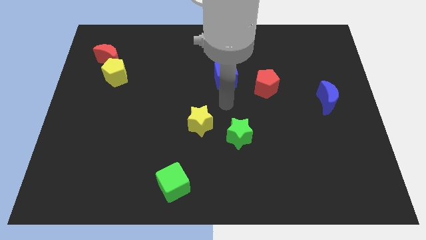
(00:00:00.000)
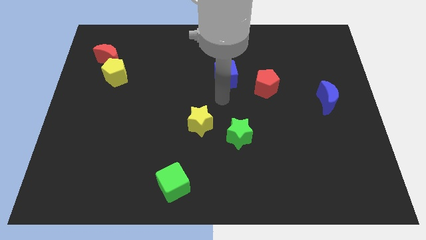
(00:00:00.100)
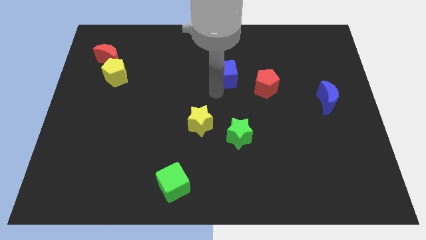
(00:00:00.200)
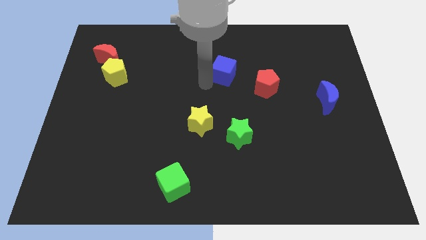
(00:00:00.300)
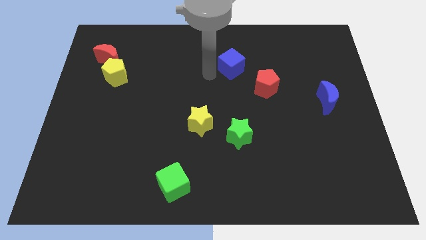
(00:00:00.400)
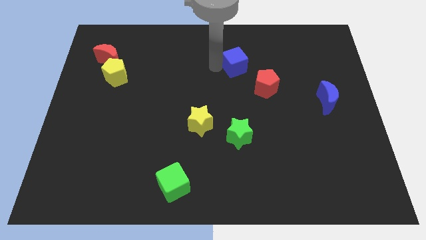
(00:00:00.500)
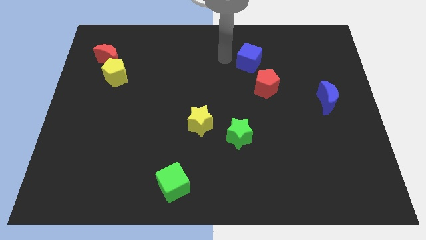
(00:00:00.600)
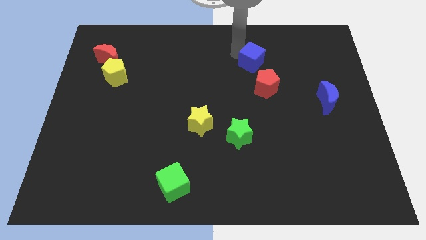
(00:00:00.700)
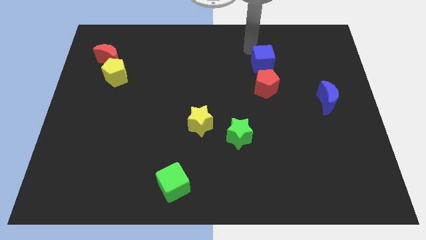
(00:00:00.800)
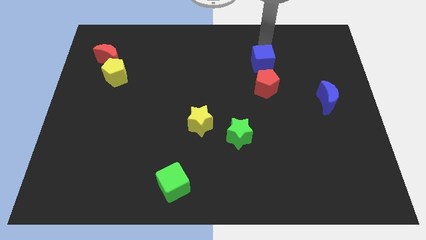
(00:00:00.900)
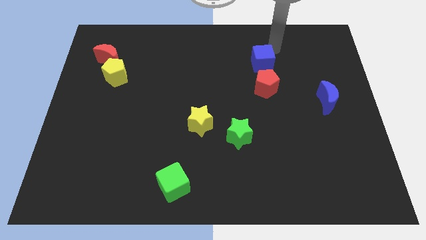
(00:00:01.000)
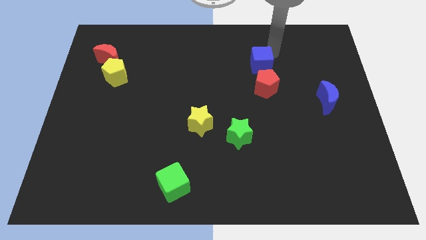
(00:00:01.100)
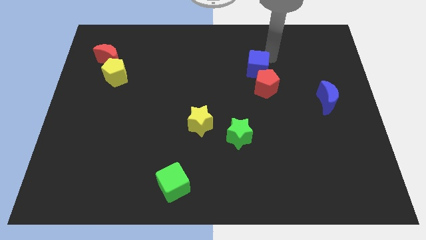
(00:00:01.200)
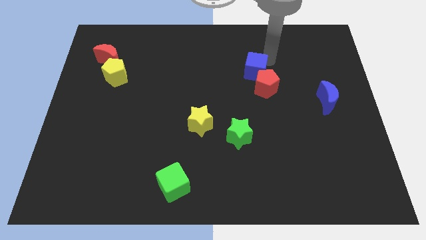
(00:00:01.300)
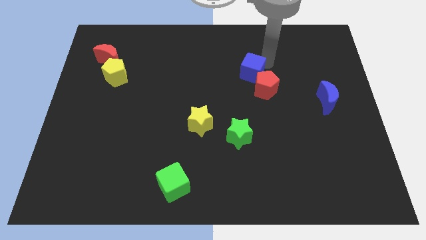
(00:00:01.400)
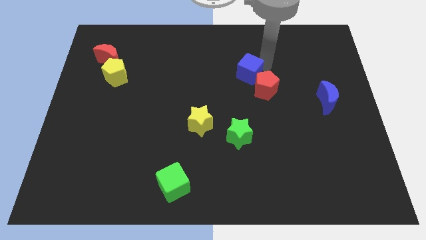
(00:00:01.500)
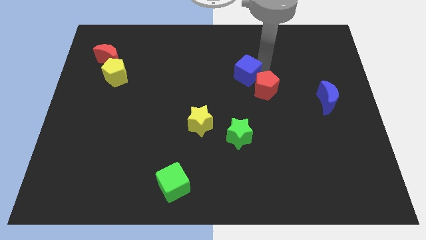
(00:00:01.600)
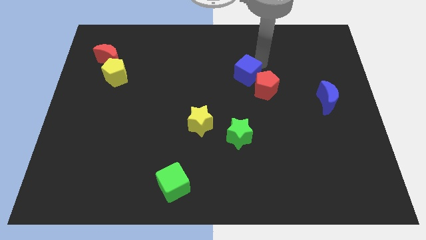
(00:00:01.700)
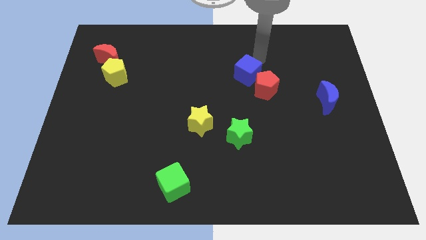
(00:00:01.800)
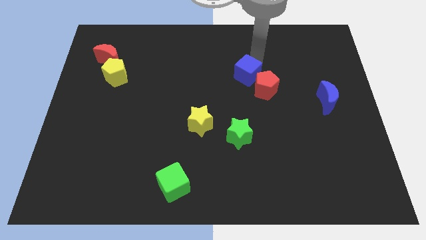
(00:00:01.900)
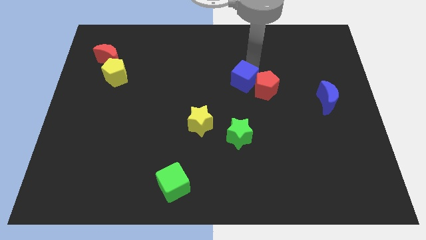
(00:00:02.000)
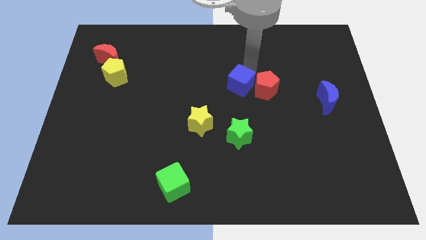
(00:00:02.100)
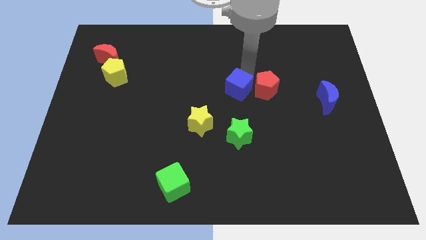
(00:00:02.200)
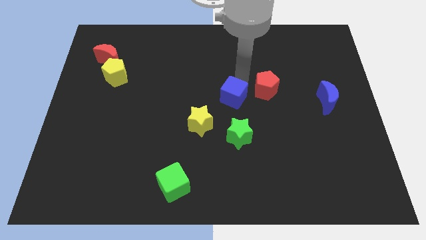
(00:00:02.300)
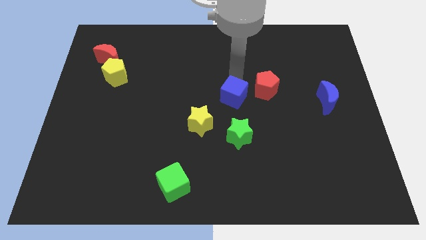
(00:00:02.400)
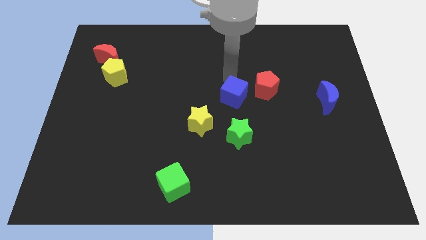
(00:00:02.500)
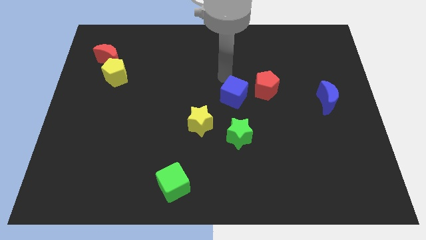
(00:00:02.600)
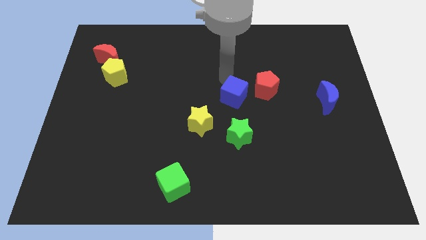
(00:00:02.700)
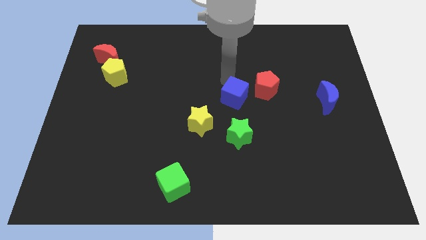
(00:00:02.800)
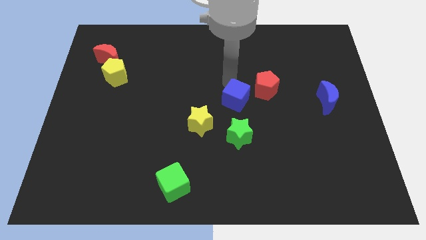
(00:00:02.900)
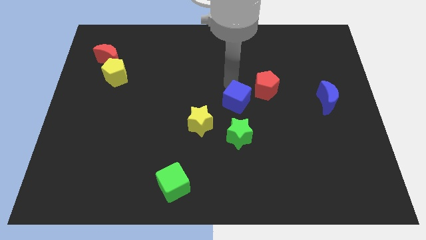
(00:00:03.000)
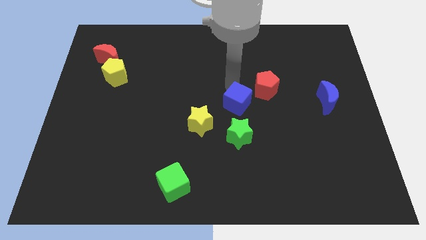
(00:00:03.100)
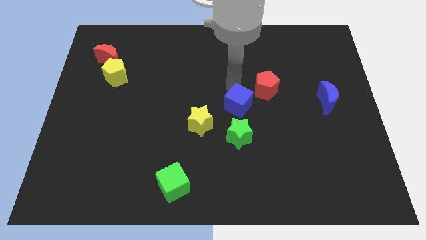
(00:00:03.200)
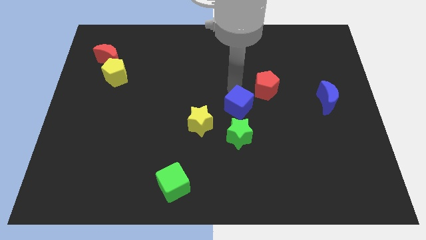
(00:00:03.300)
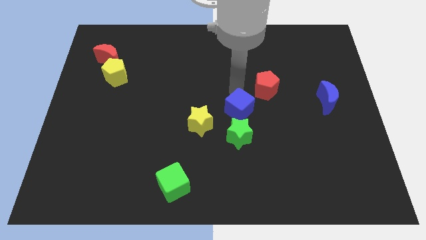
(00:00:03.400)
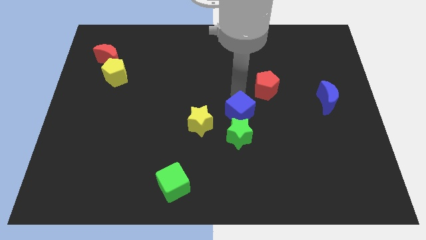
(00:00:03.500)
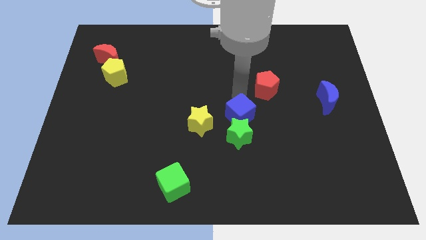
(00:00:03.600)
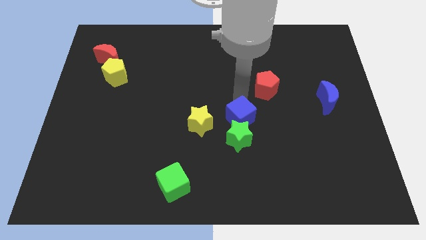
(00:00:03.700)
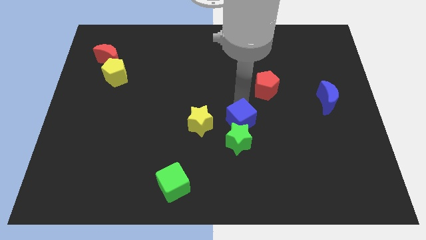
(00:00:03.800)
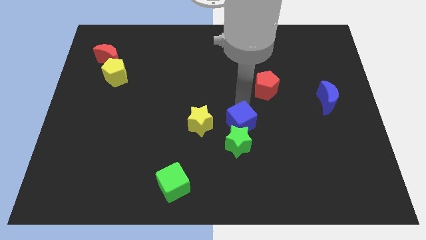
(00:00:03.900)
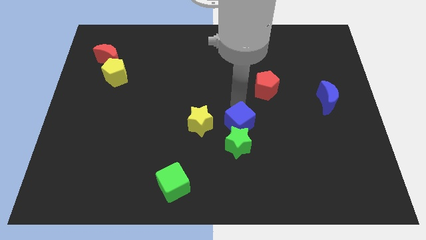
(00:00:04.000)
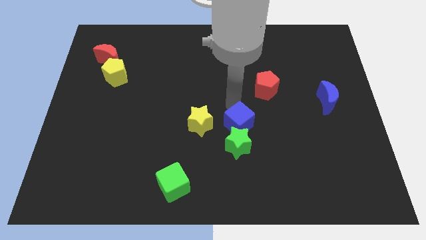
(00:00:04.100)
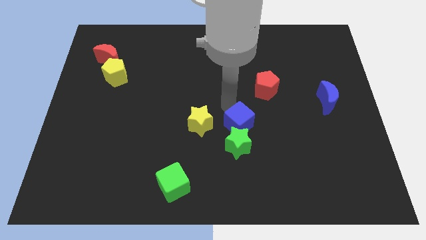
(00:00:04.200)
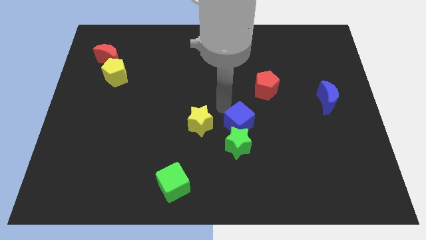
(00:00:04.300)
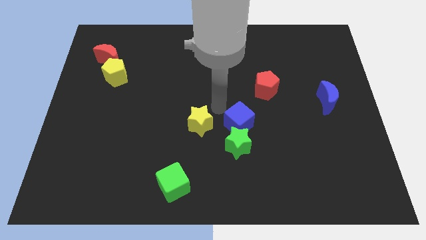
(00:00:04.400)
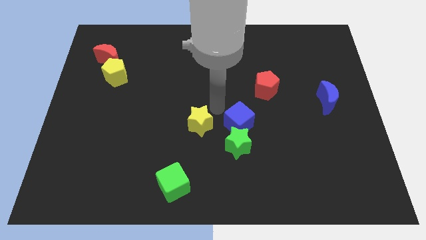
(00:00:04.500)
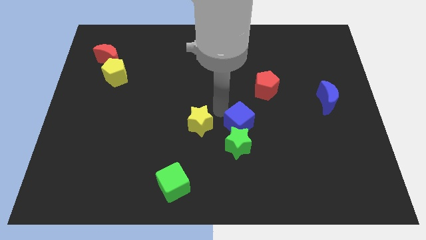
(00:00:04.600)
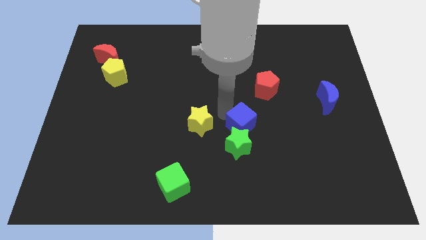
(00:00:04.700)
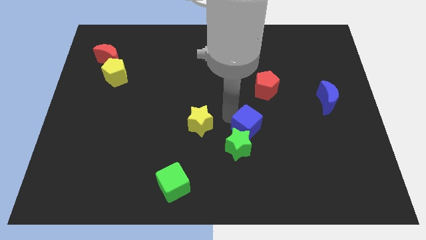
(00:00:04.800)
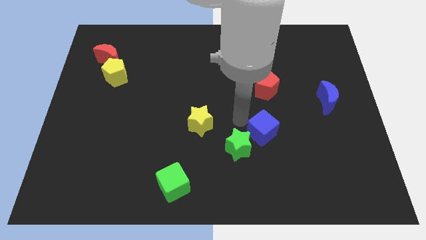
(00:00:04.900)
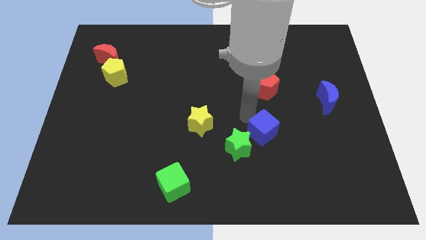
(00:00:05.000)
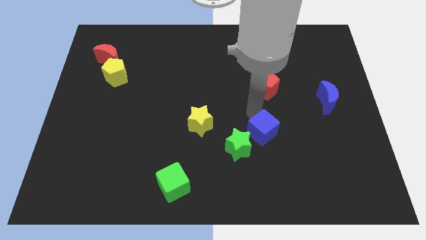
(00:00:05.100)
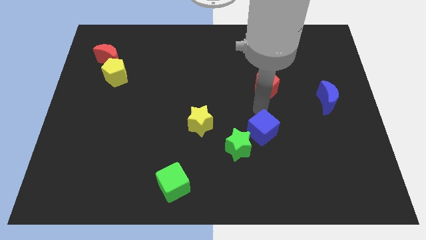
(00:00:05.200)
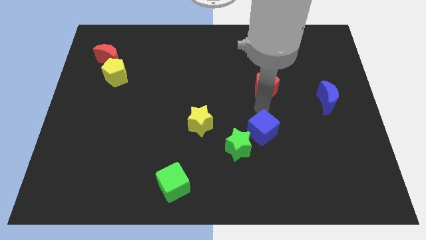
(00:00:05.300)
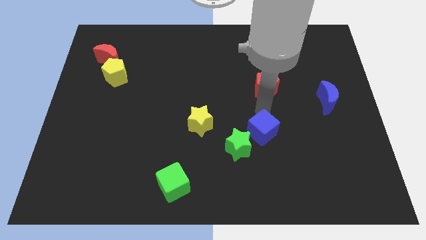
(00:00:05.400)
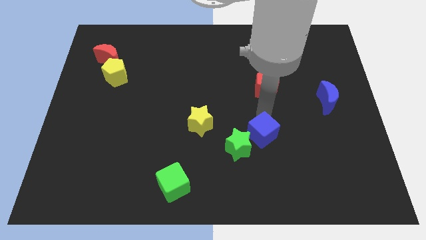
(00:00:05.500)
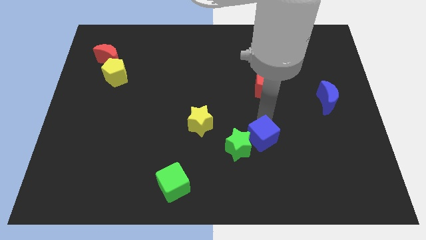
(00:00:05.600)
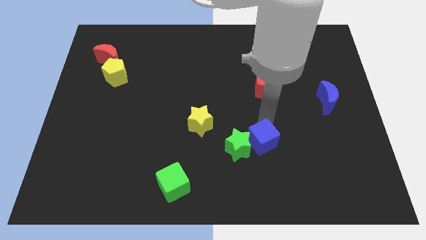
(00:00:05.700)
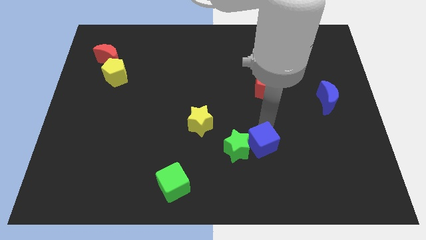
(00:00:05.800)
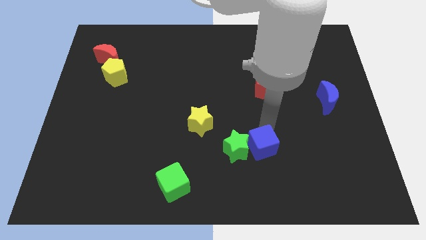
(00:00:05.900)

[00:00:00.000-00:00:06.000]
move the blue cube to the bottom right of the green star

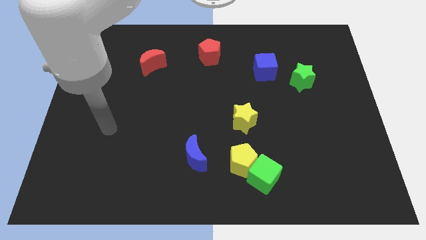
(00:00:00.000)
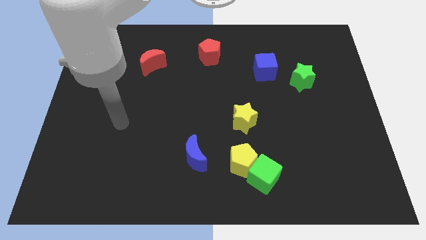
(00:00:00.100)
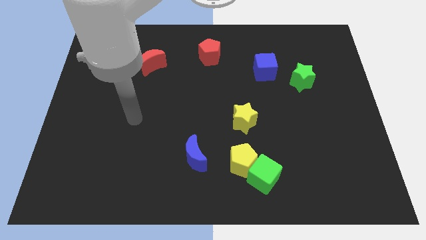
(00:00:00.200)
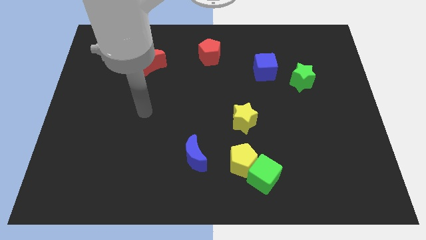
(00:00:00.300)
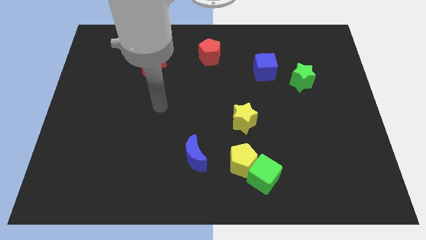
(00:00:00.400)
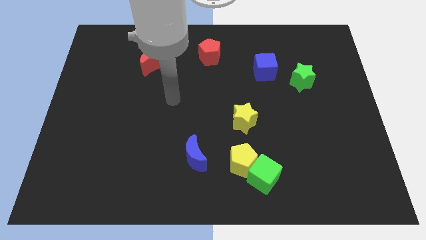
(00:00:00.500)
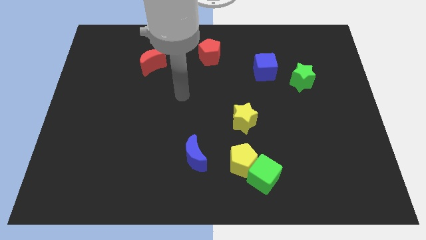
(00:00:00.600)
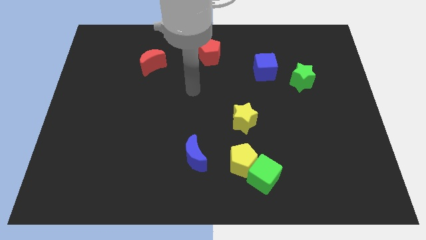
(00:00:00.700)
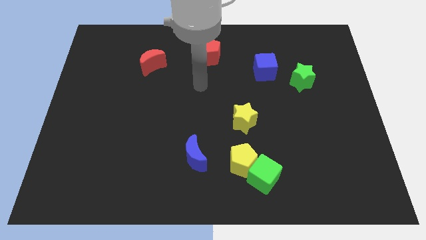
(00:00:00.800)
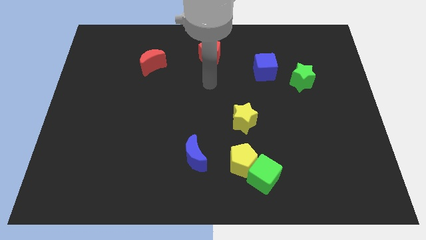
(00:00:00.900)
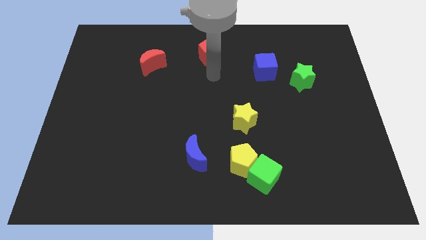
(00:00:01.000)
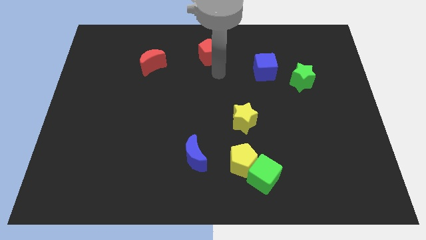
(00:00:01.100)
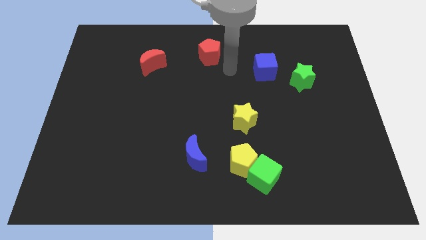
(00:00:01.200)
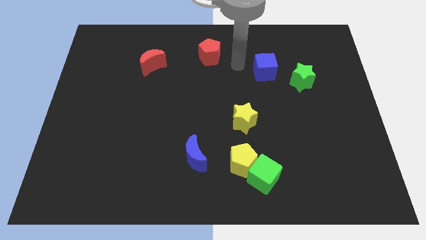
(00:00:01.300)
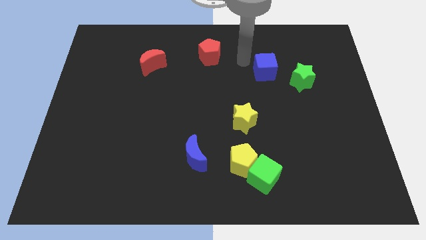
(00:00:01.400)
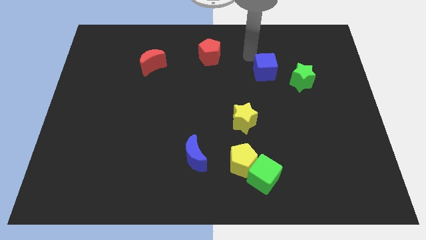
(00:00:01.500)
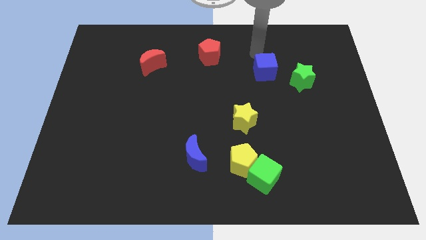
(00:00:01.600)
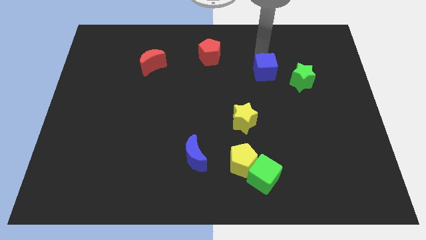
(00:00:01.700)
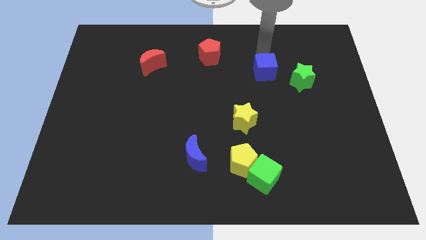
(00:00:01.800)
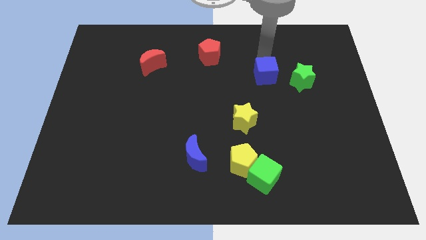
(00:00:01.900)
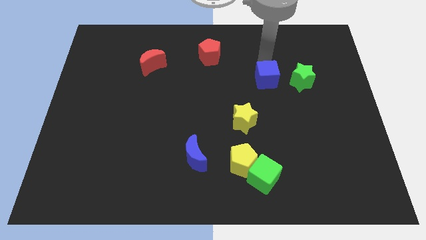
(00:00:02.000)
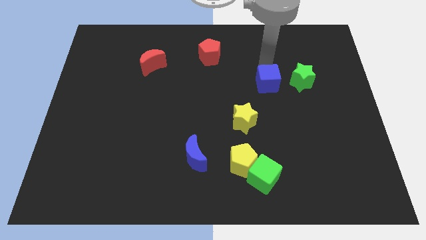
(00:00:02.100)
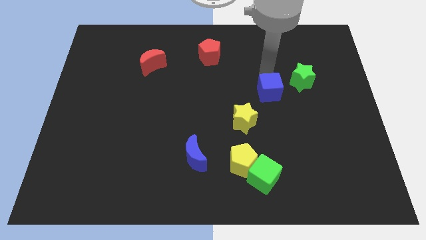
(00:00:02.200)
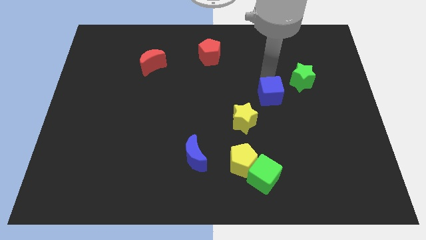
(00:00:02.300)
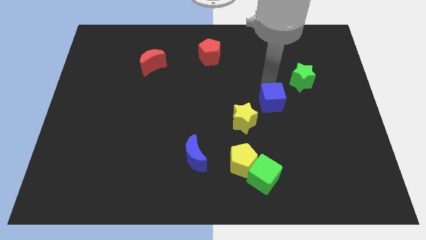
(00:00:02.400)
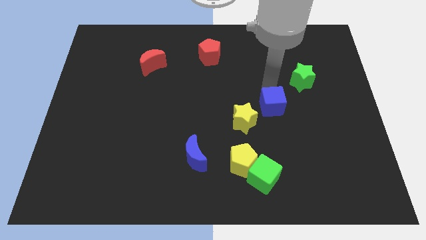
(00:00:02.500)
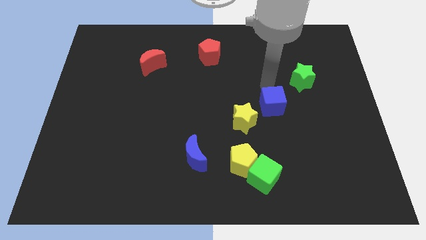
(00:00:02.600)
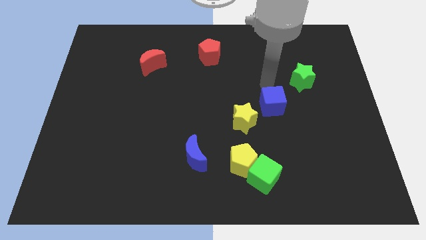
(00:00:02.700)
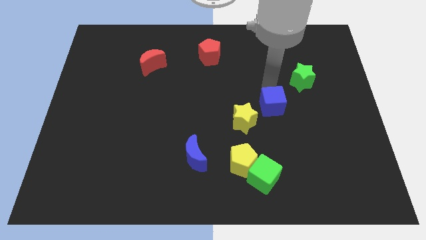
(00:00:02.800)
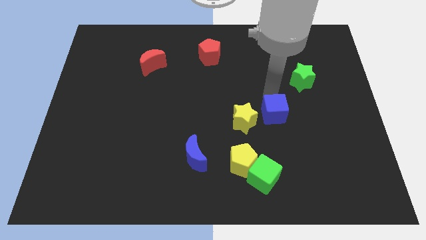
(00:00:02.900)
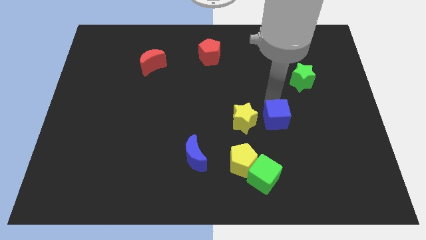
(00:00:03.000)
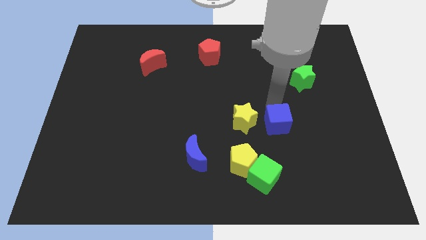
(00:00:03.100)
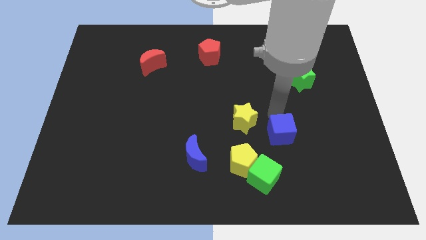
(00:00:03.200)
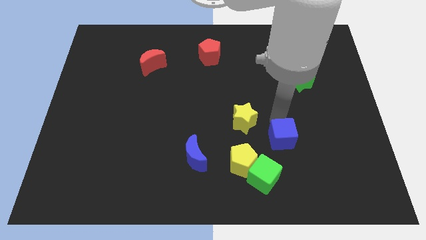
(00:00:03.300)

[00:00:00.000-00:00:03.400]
move the blue cube diagonally up and to the right of the green cube
